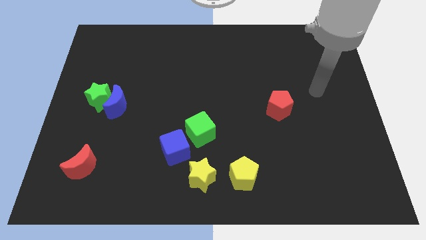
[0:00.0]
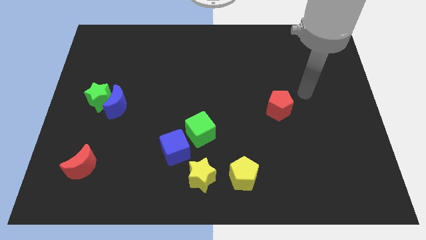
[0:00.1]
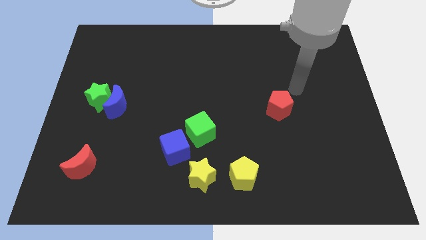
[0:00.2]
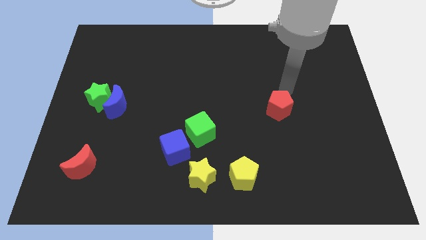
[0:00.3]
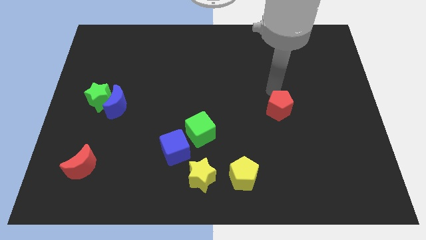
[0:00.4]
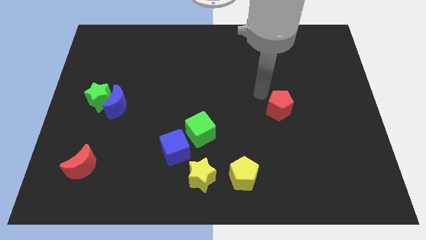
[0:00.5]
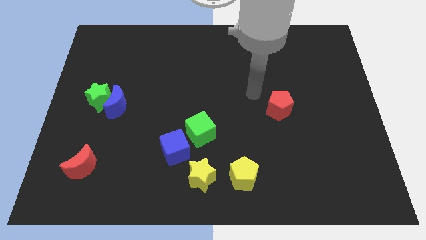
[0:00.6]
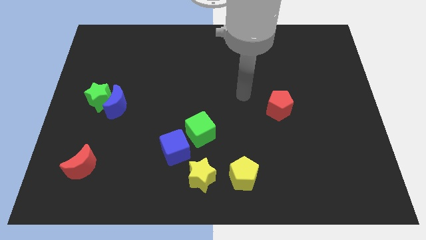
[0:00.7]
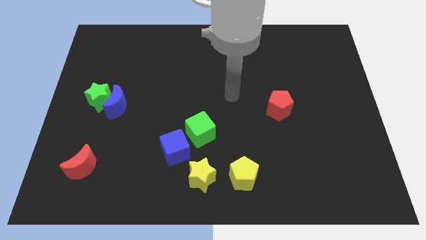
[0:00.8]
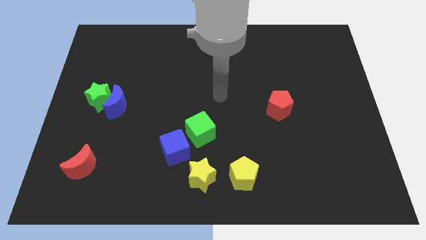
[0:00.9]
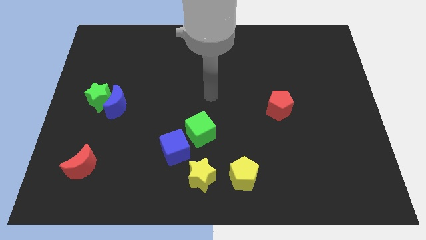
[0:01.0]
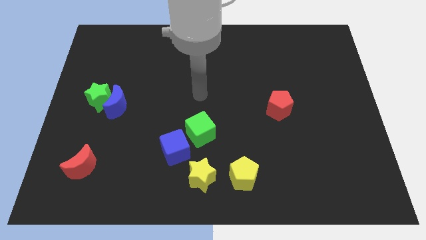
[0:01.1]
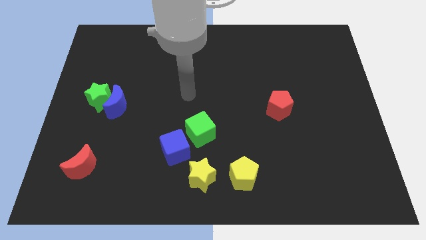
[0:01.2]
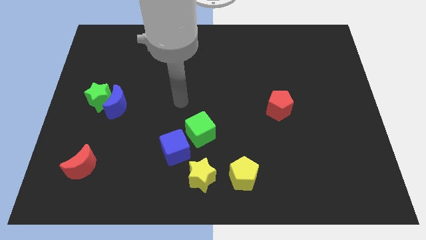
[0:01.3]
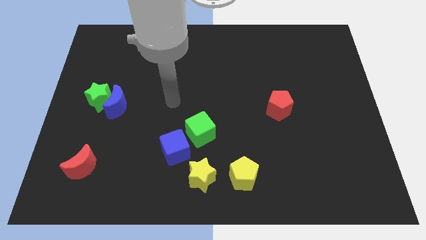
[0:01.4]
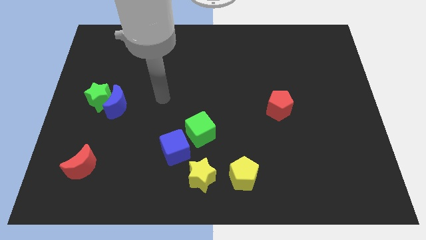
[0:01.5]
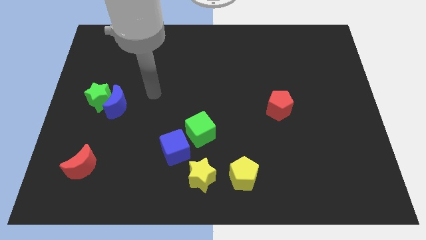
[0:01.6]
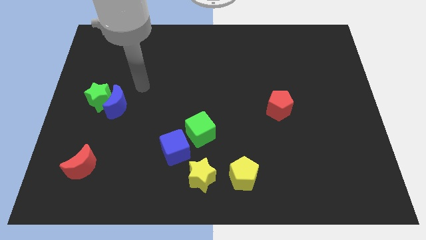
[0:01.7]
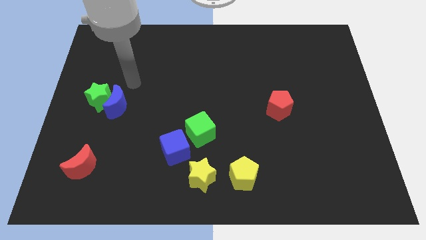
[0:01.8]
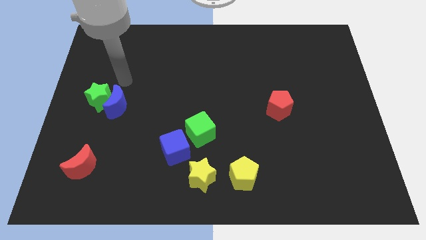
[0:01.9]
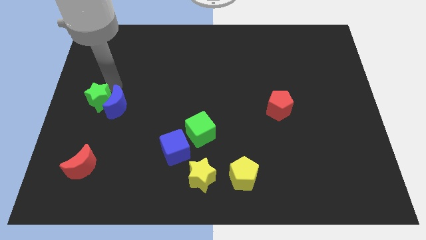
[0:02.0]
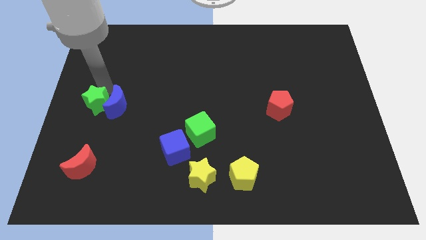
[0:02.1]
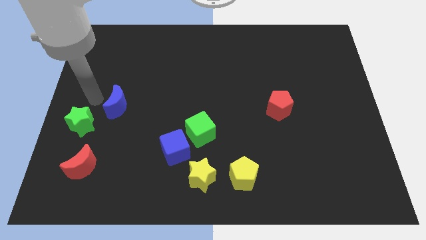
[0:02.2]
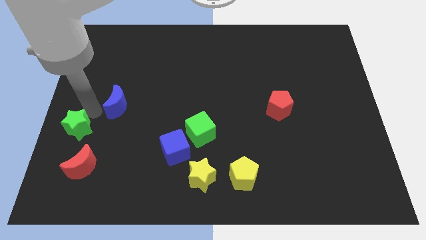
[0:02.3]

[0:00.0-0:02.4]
move the blue moon away from the green star

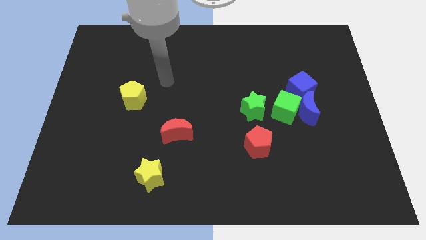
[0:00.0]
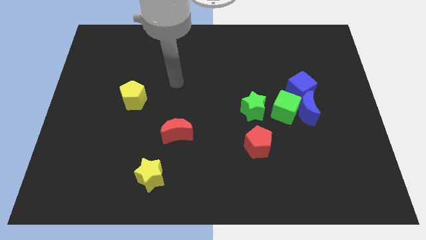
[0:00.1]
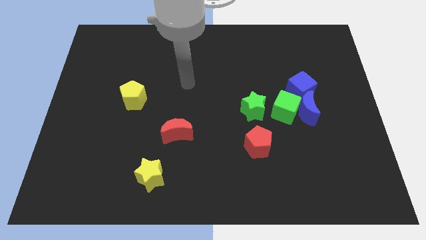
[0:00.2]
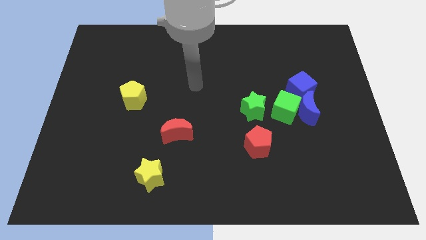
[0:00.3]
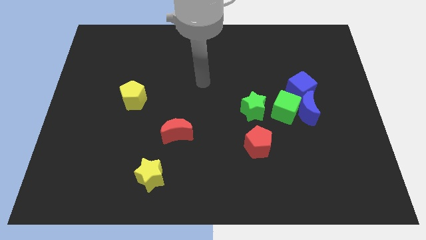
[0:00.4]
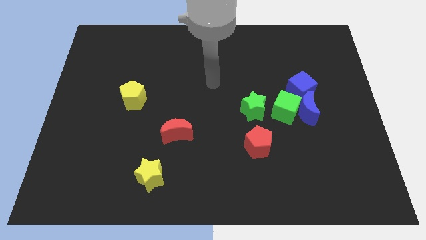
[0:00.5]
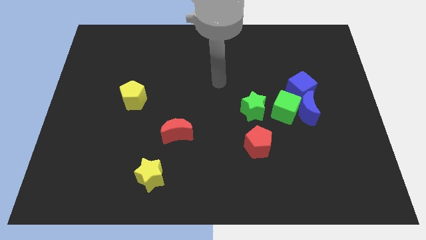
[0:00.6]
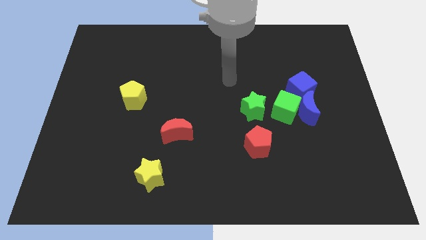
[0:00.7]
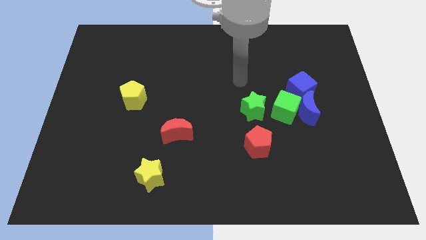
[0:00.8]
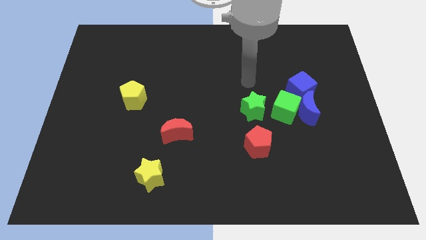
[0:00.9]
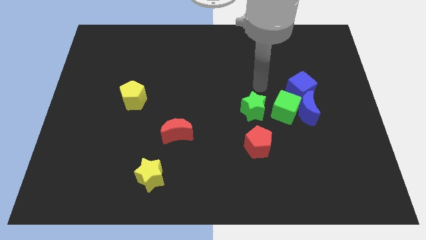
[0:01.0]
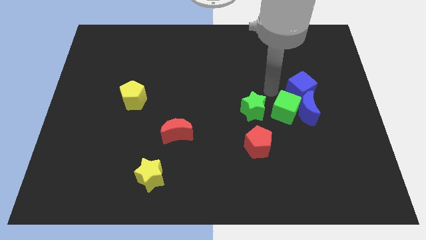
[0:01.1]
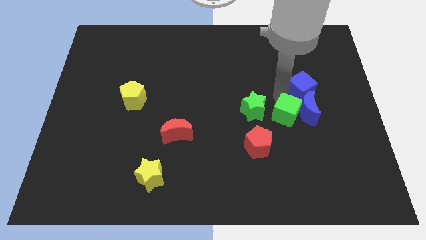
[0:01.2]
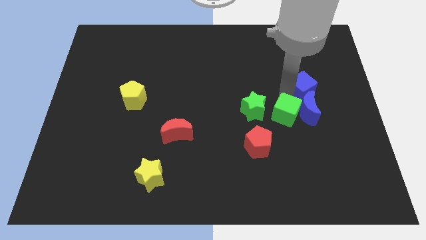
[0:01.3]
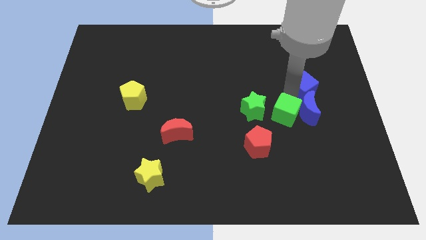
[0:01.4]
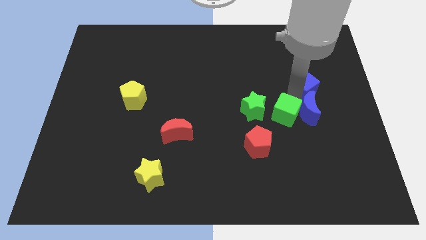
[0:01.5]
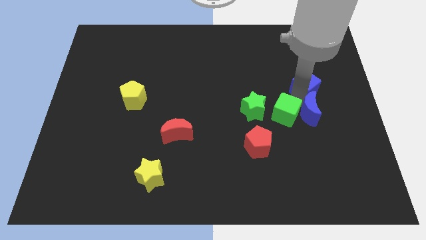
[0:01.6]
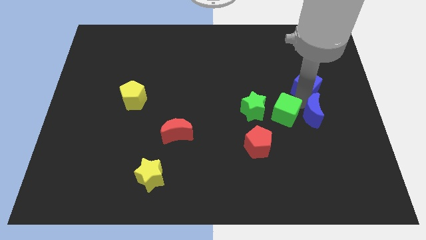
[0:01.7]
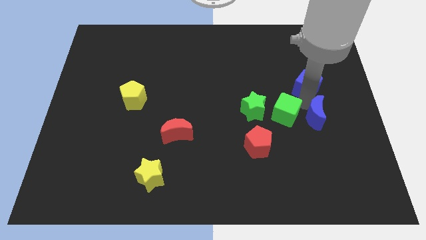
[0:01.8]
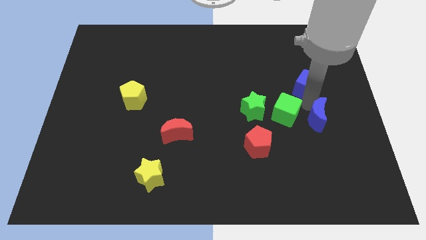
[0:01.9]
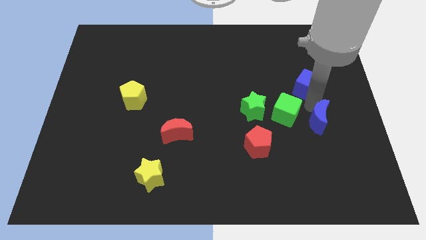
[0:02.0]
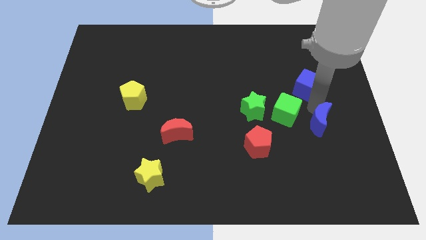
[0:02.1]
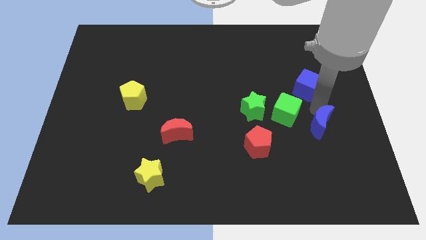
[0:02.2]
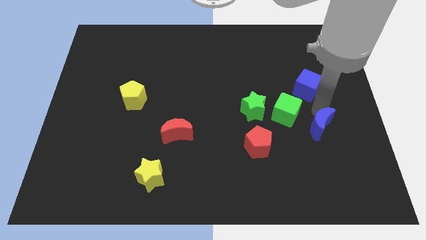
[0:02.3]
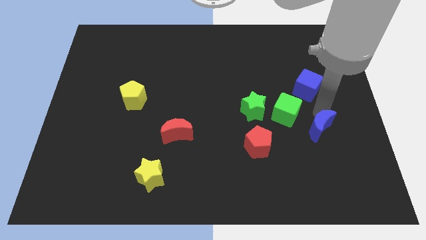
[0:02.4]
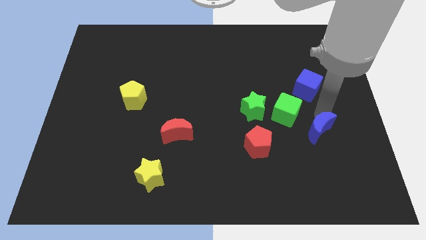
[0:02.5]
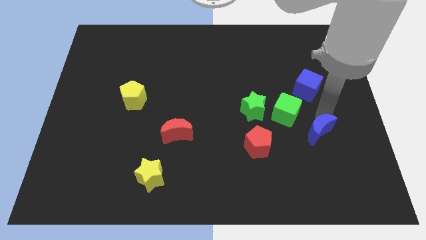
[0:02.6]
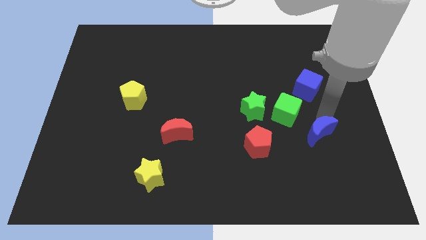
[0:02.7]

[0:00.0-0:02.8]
separate the blue moon from the green cube and blue cube

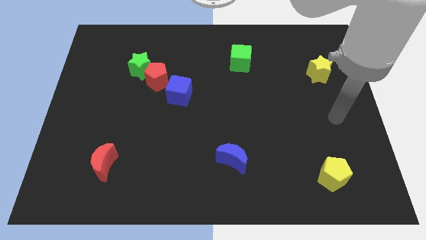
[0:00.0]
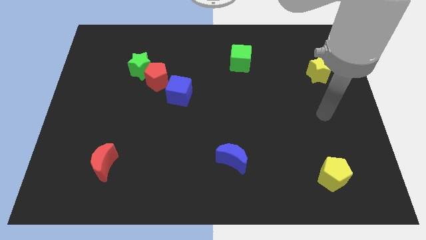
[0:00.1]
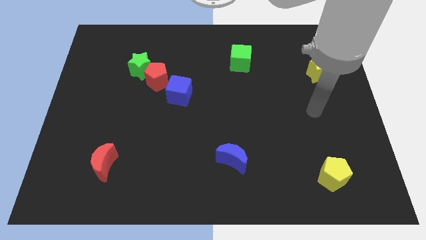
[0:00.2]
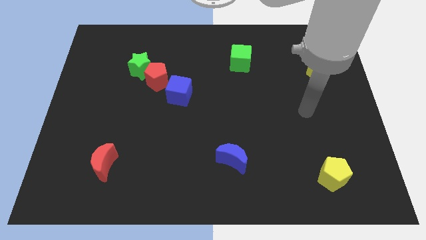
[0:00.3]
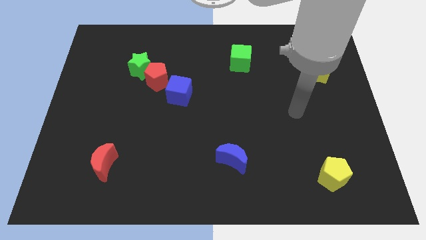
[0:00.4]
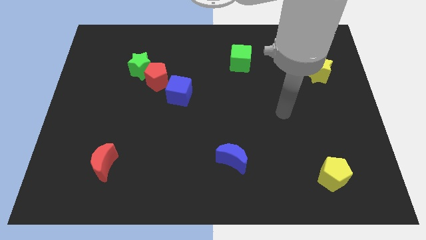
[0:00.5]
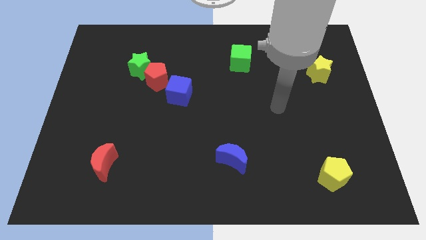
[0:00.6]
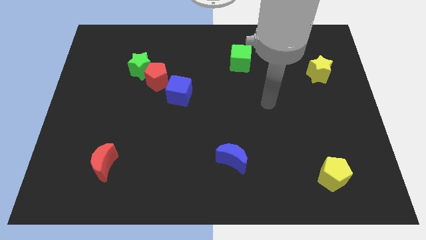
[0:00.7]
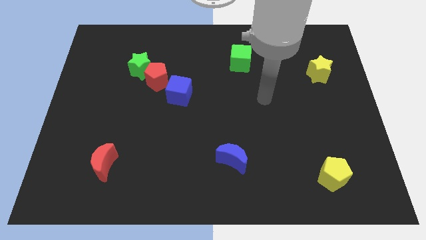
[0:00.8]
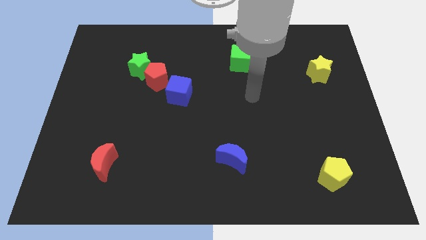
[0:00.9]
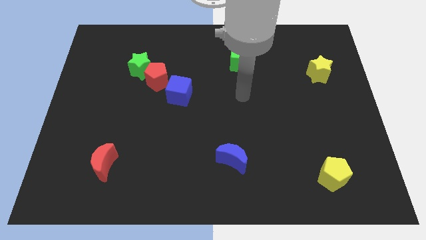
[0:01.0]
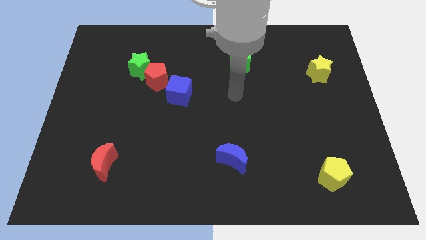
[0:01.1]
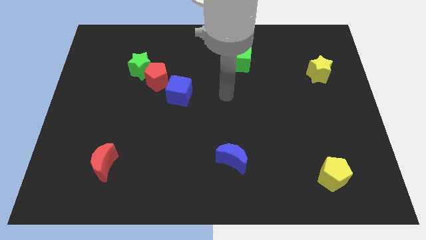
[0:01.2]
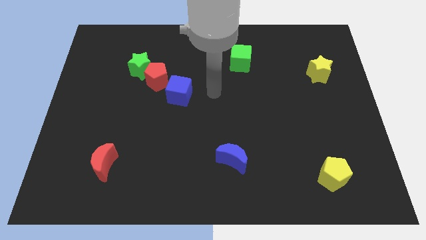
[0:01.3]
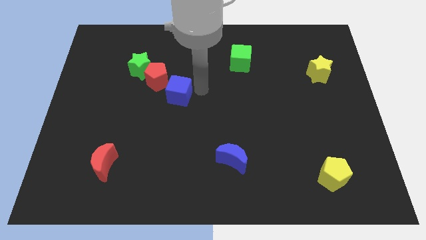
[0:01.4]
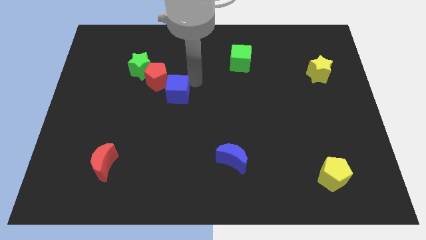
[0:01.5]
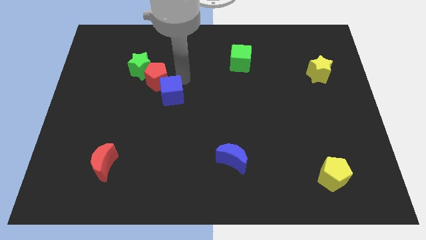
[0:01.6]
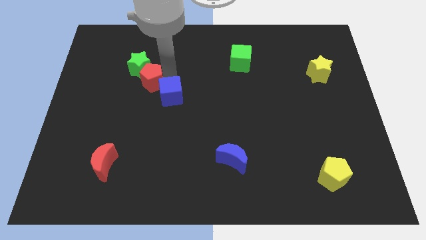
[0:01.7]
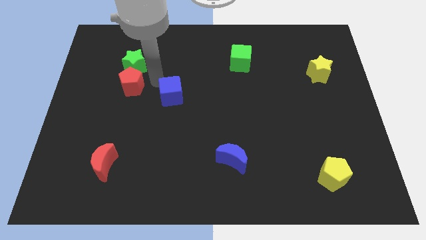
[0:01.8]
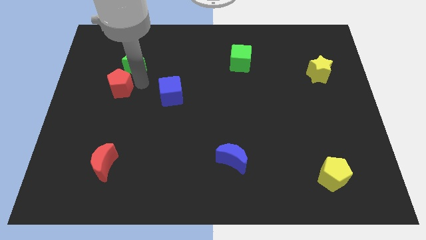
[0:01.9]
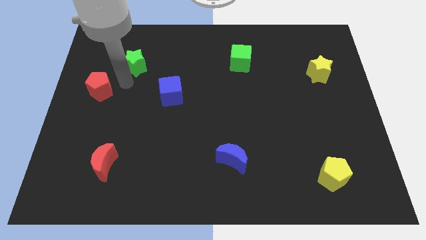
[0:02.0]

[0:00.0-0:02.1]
separate the green star from the red pentagon

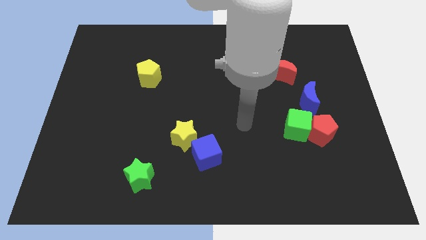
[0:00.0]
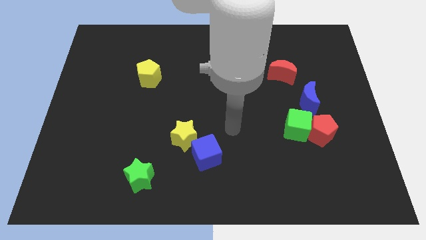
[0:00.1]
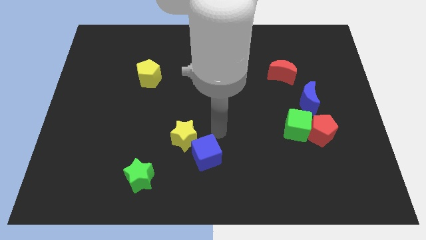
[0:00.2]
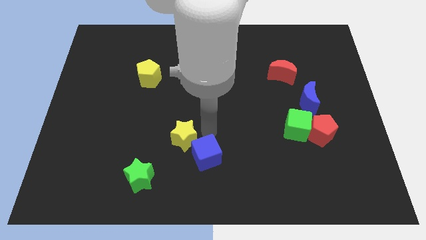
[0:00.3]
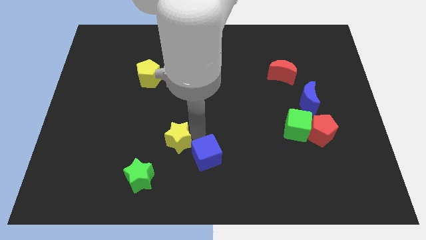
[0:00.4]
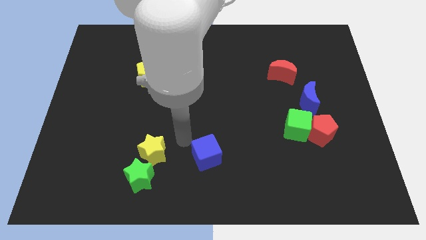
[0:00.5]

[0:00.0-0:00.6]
separate the blue cube from the yellow star

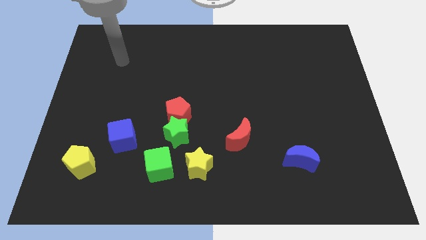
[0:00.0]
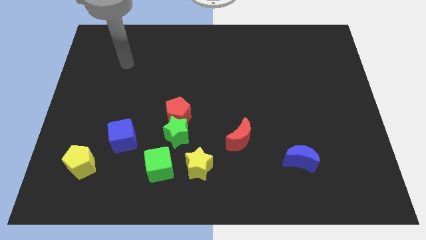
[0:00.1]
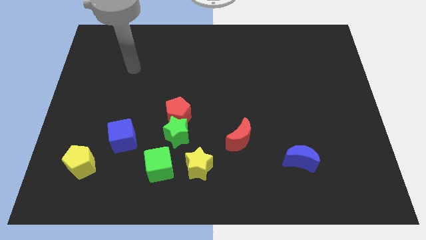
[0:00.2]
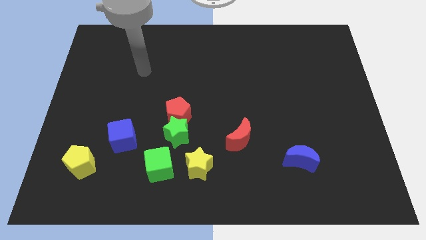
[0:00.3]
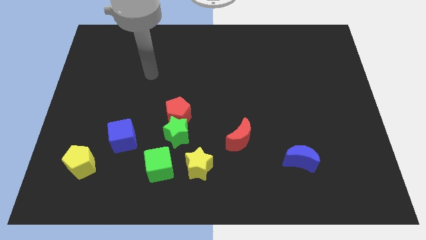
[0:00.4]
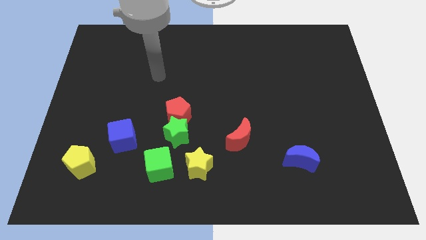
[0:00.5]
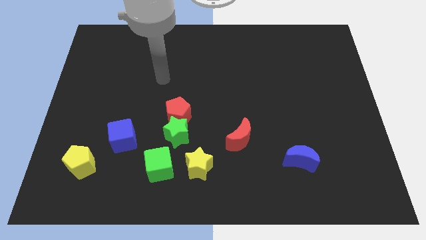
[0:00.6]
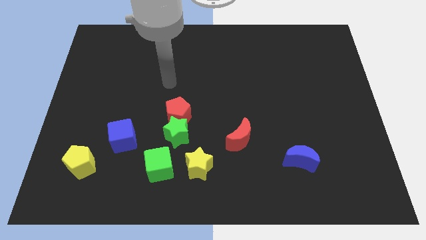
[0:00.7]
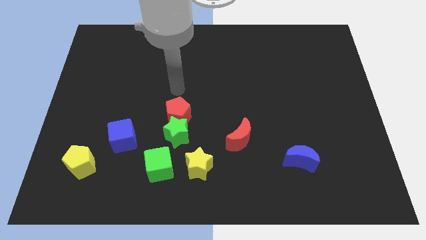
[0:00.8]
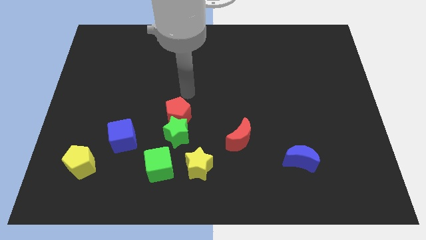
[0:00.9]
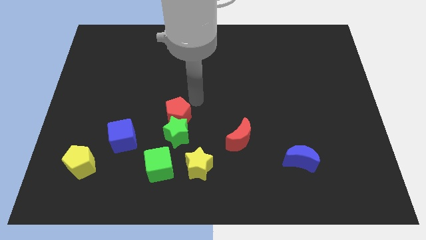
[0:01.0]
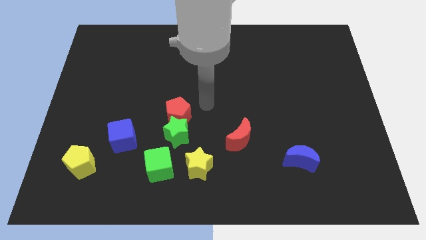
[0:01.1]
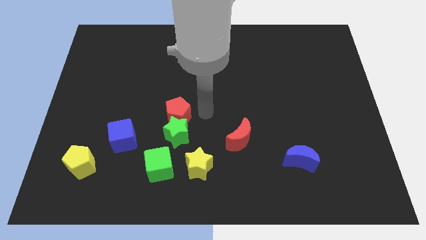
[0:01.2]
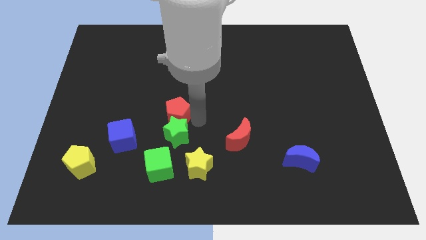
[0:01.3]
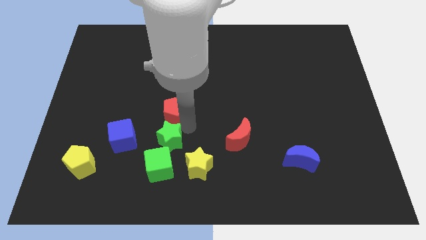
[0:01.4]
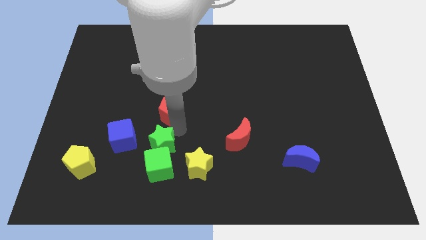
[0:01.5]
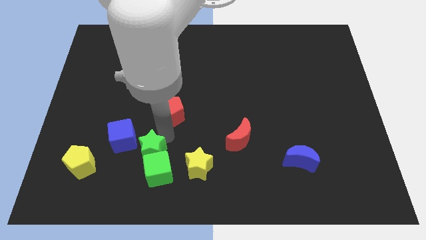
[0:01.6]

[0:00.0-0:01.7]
move the red pentagon away from the green star
